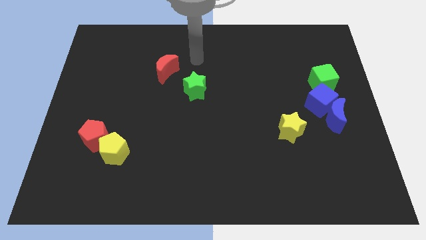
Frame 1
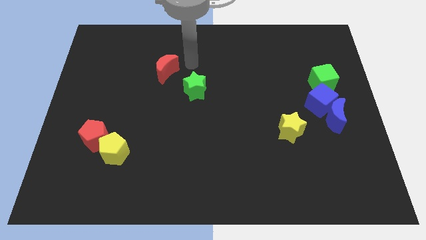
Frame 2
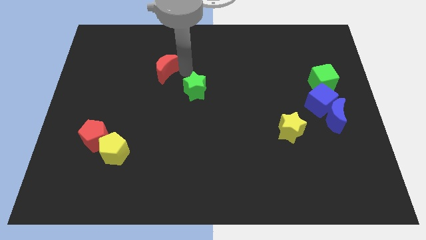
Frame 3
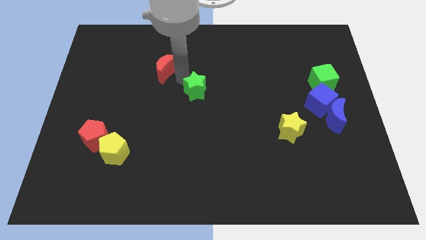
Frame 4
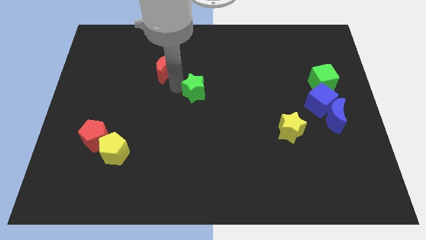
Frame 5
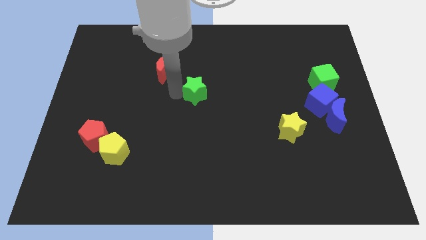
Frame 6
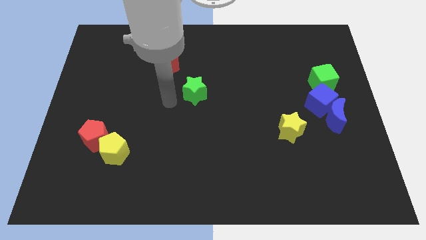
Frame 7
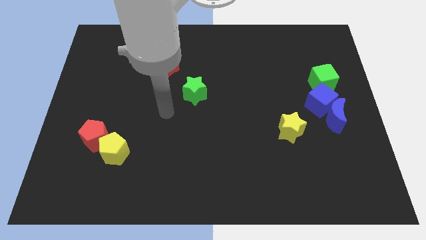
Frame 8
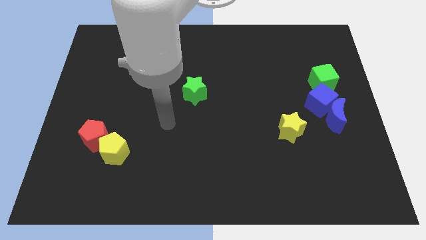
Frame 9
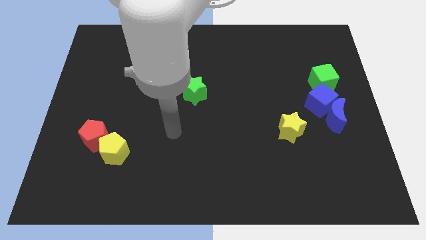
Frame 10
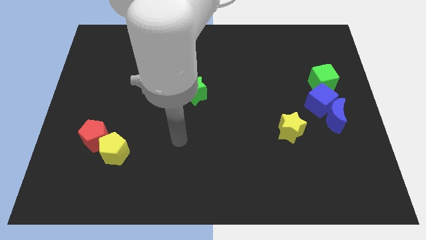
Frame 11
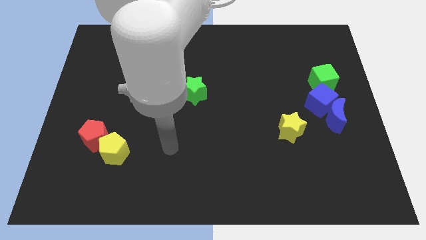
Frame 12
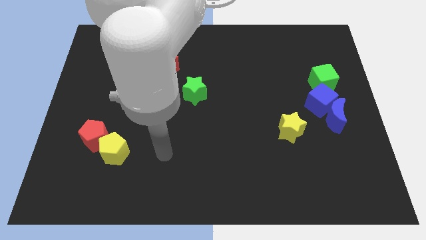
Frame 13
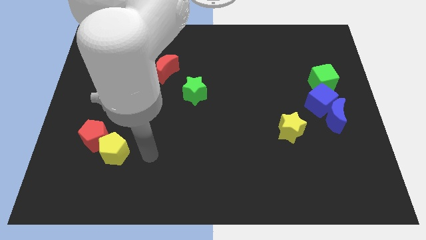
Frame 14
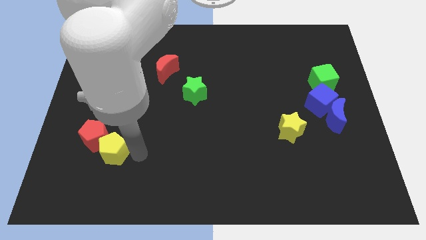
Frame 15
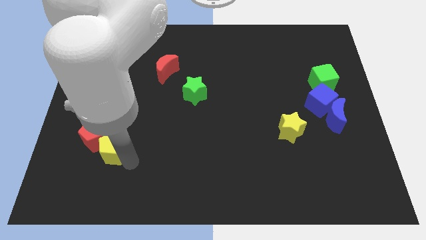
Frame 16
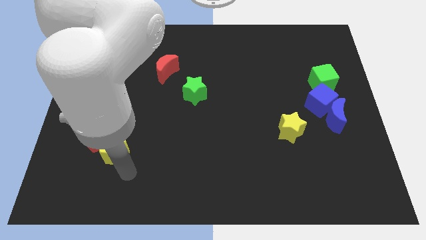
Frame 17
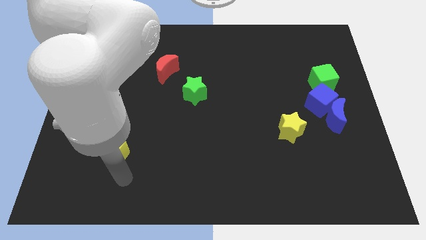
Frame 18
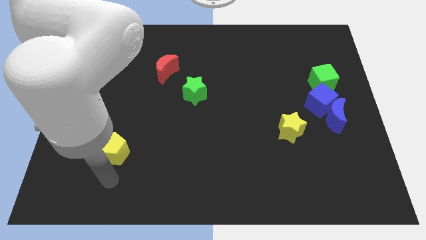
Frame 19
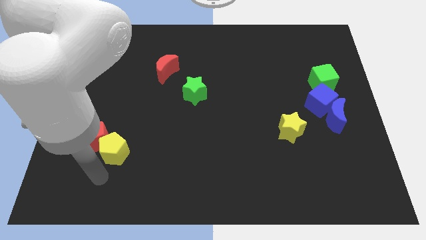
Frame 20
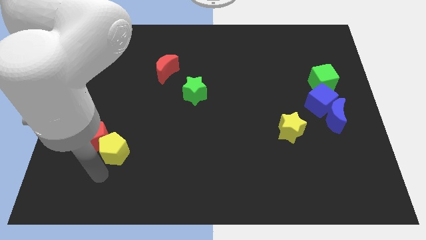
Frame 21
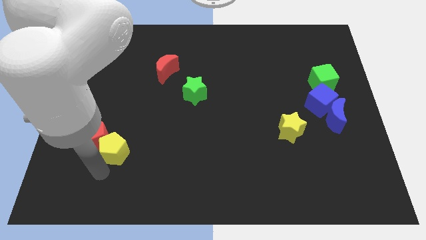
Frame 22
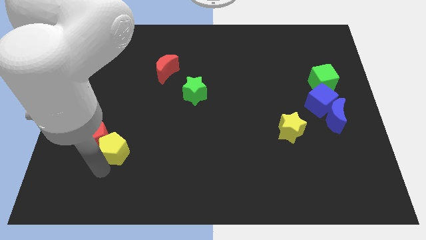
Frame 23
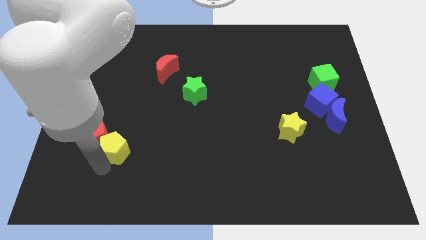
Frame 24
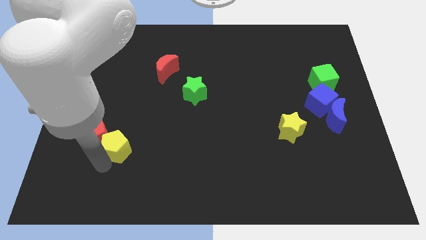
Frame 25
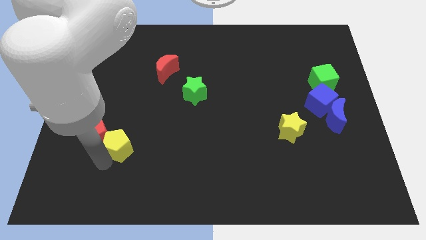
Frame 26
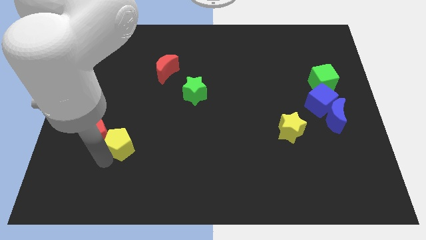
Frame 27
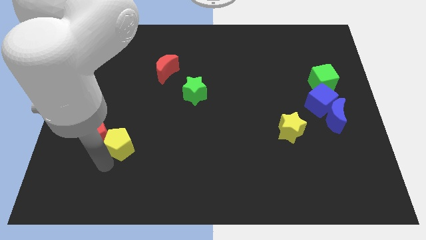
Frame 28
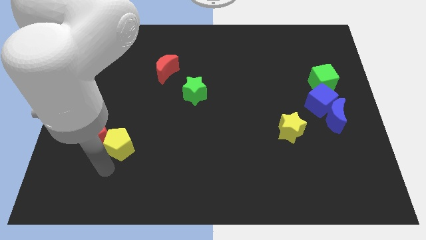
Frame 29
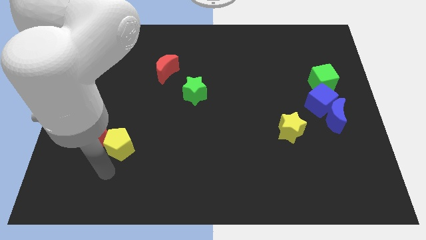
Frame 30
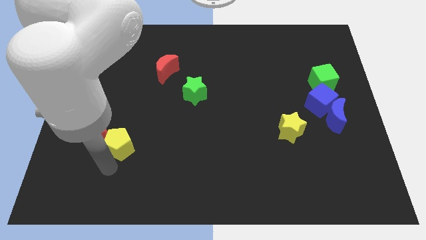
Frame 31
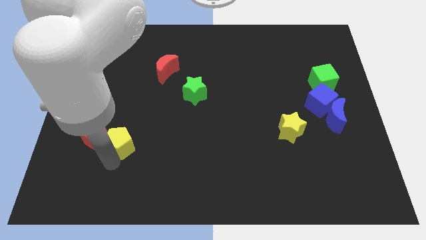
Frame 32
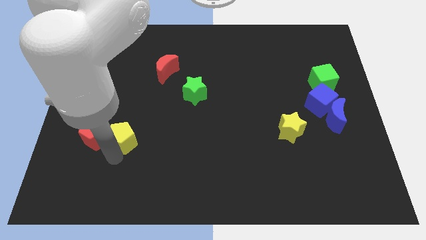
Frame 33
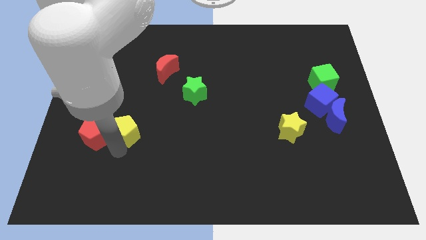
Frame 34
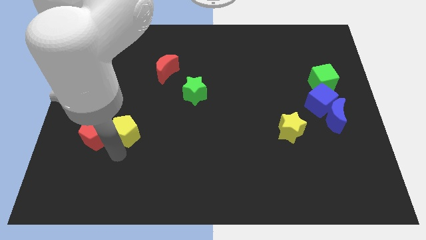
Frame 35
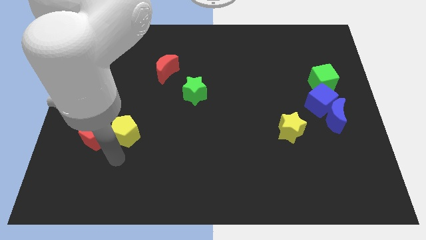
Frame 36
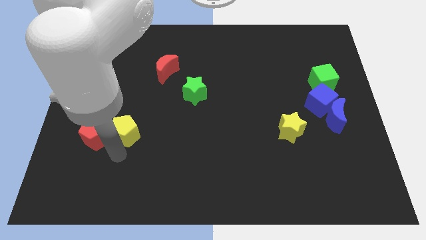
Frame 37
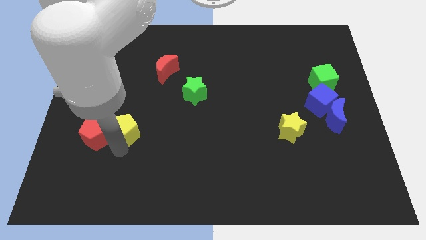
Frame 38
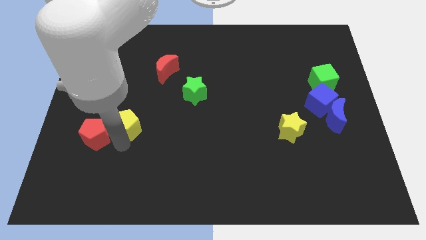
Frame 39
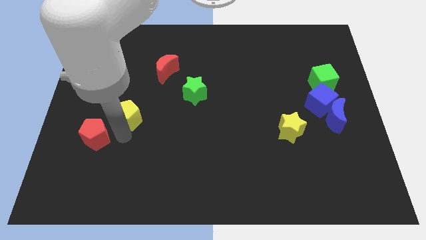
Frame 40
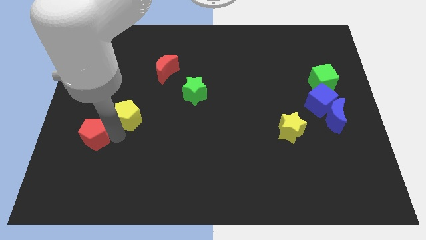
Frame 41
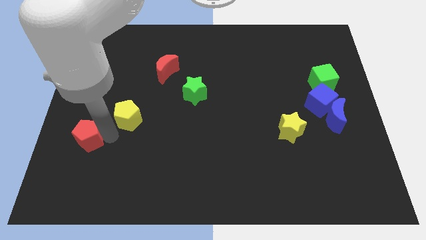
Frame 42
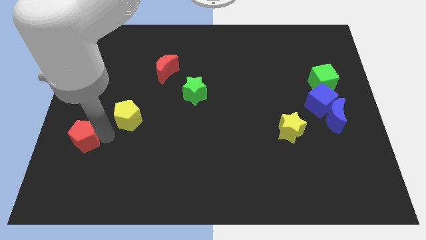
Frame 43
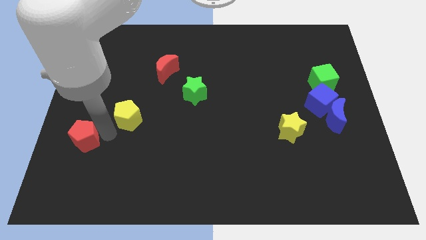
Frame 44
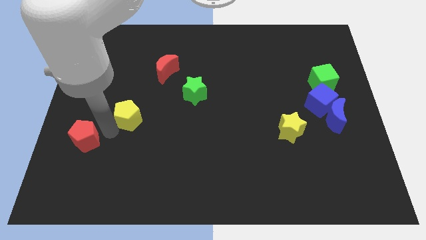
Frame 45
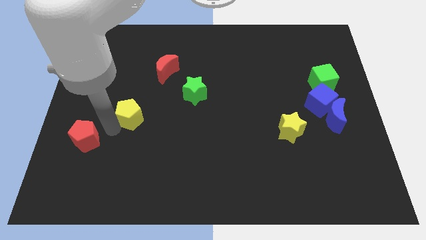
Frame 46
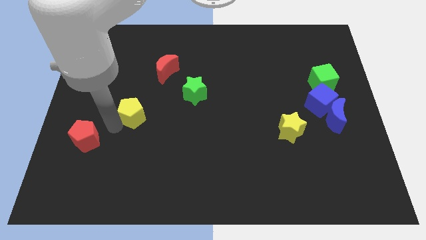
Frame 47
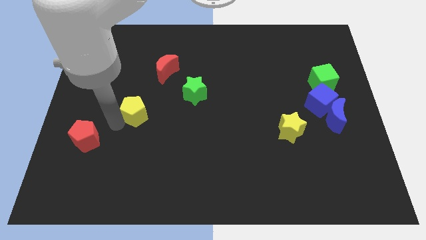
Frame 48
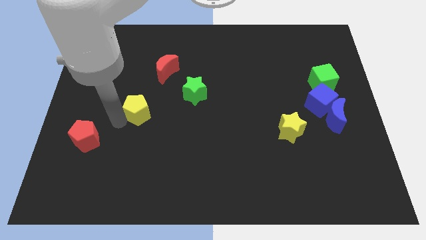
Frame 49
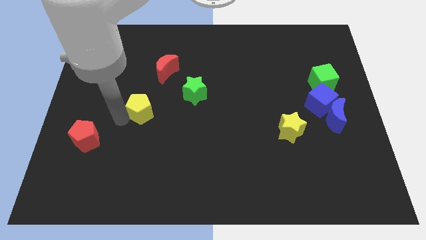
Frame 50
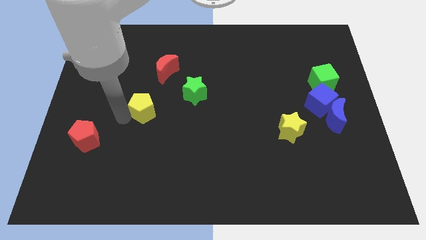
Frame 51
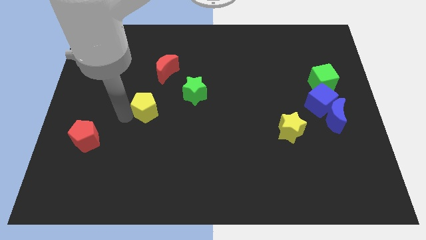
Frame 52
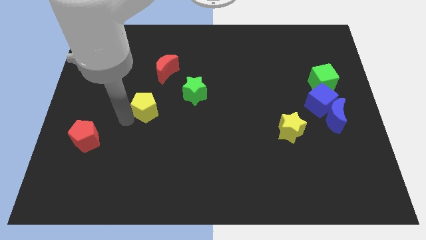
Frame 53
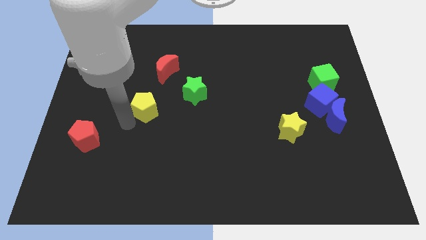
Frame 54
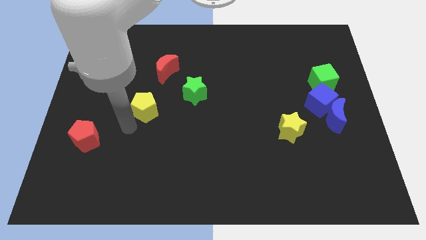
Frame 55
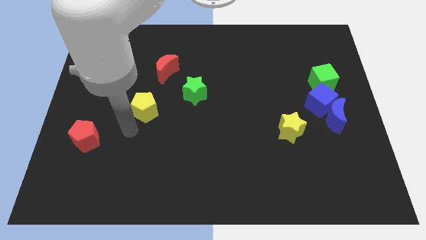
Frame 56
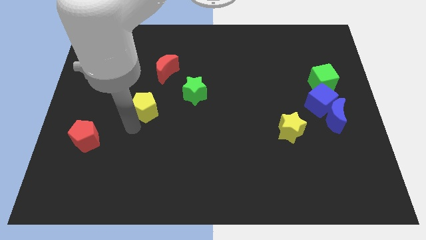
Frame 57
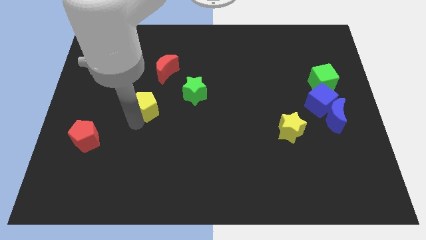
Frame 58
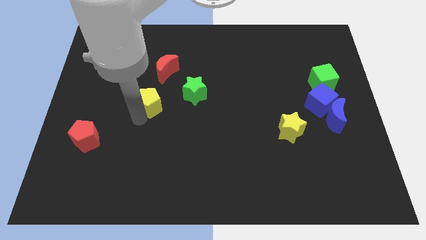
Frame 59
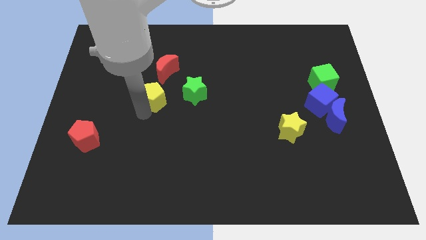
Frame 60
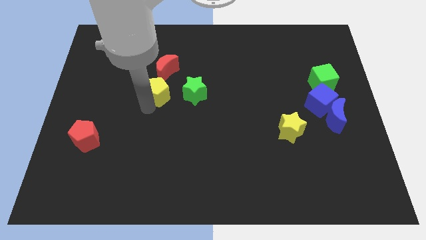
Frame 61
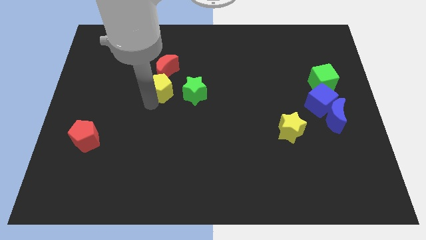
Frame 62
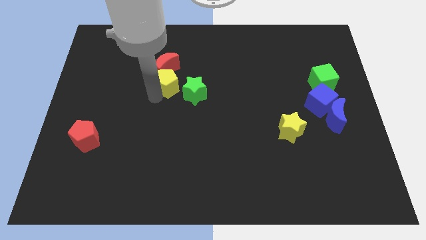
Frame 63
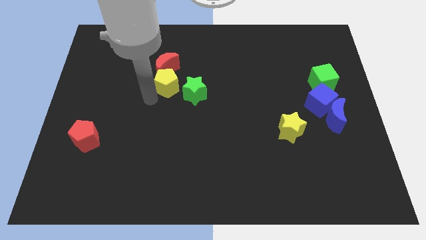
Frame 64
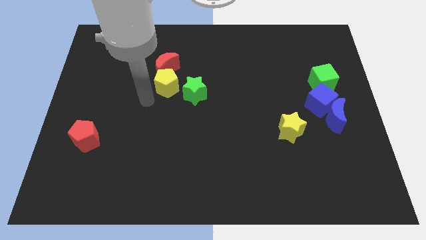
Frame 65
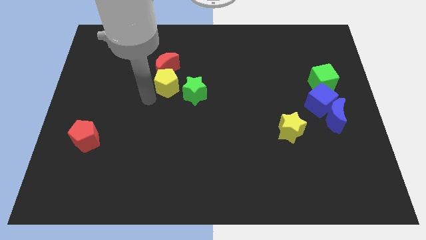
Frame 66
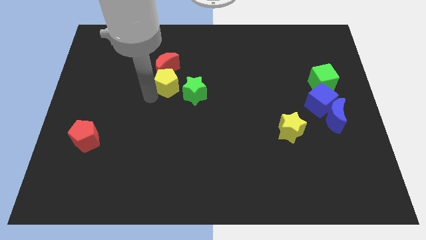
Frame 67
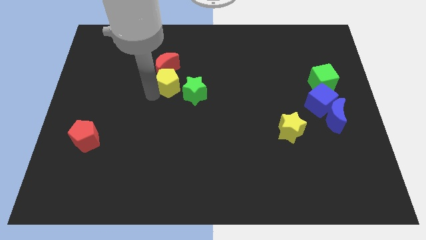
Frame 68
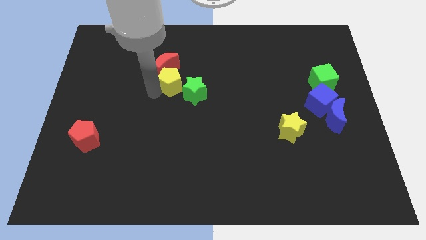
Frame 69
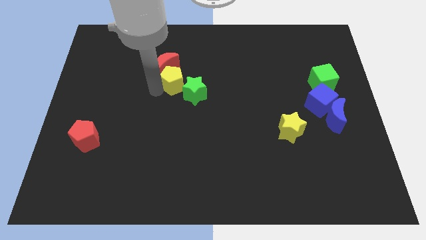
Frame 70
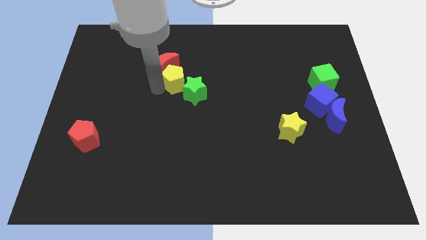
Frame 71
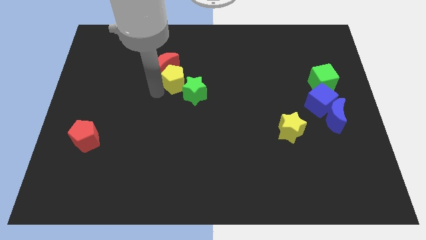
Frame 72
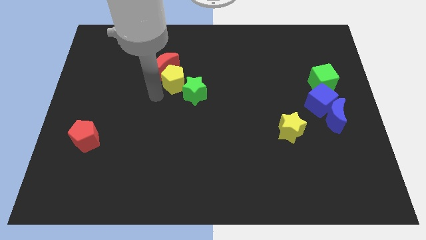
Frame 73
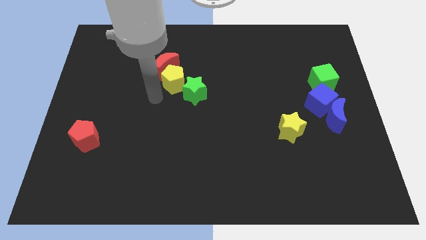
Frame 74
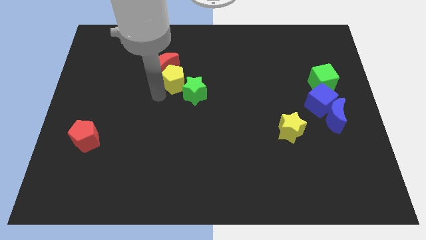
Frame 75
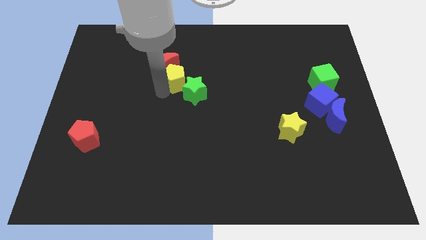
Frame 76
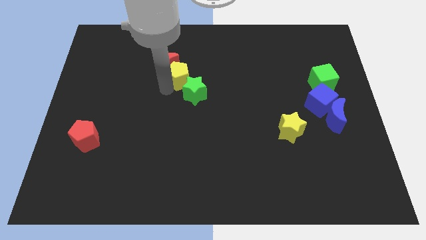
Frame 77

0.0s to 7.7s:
slide the yellow pentagon to the top of the green star
